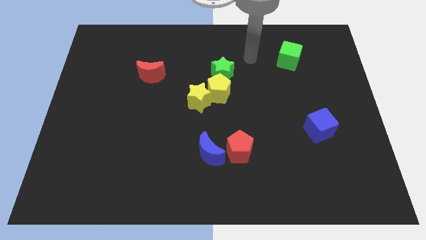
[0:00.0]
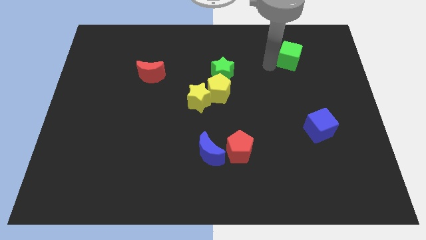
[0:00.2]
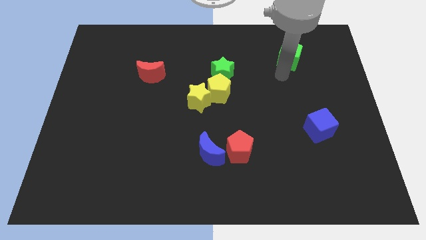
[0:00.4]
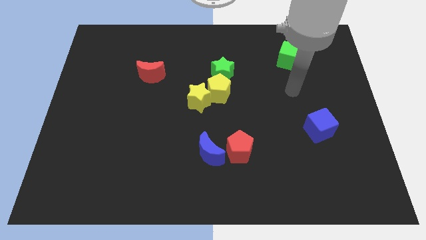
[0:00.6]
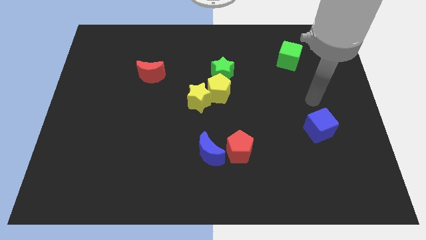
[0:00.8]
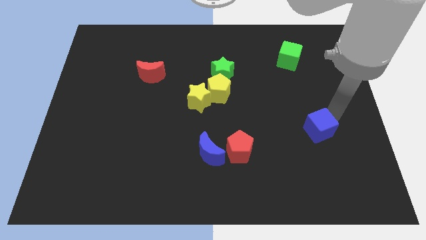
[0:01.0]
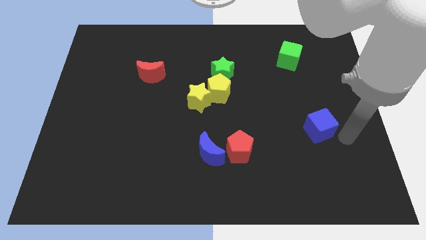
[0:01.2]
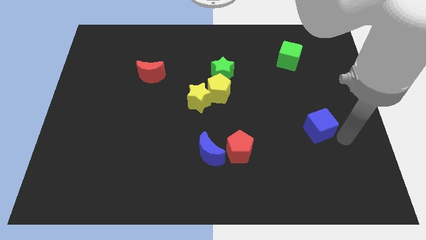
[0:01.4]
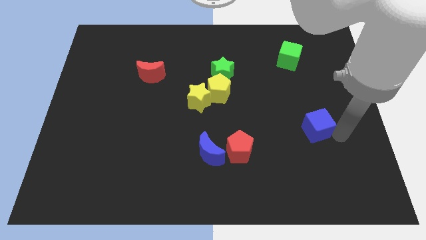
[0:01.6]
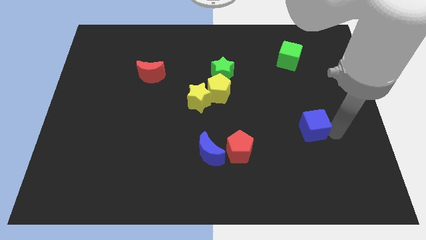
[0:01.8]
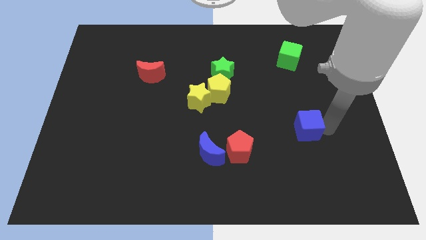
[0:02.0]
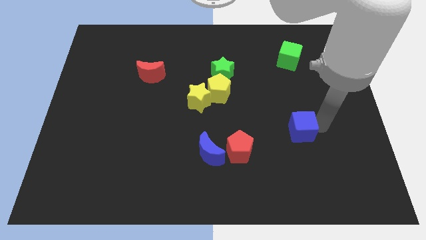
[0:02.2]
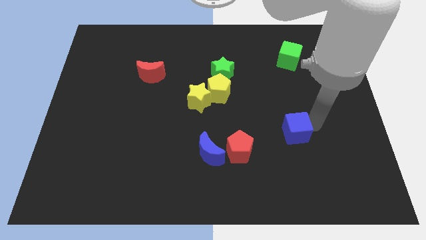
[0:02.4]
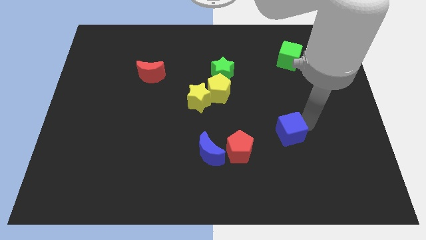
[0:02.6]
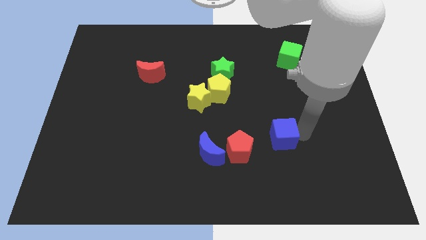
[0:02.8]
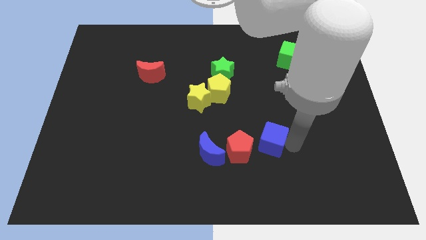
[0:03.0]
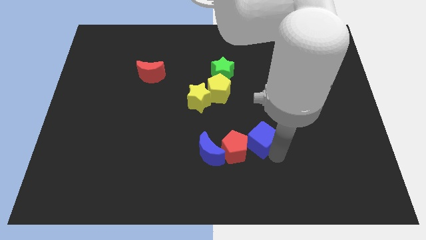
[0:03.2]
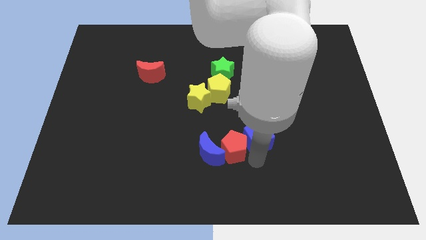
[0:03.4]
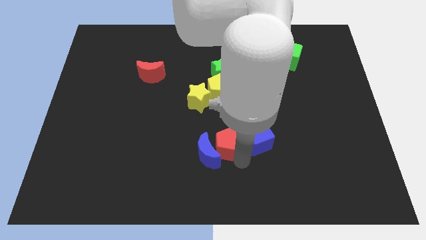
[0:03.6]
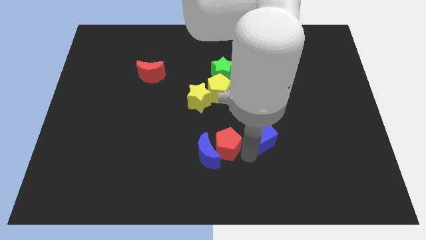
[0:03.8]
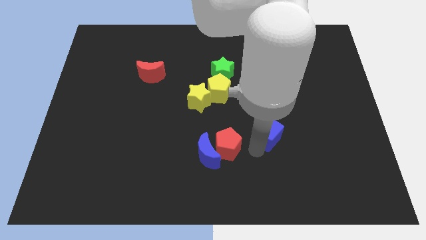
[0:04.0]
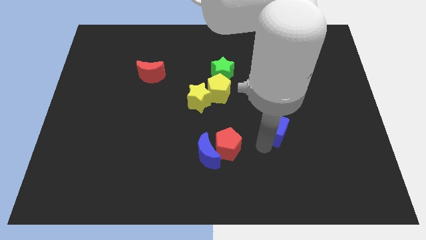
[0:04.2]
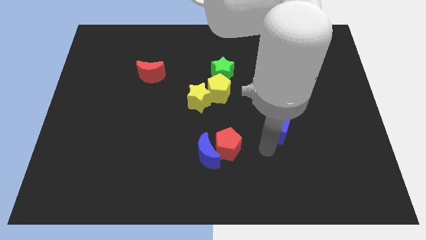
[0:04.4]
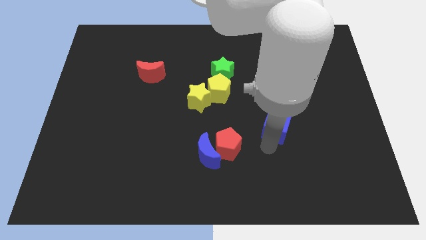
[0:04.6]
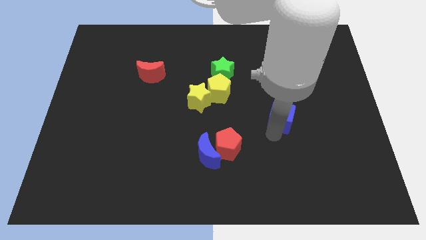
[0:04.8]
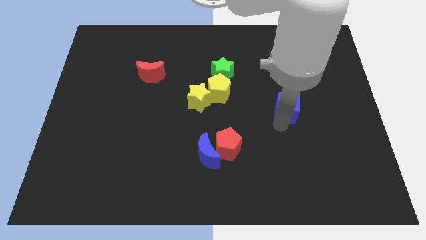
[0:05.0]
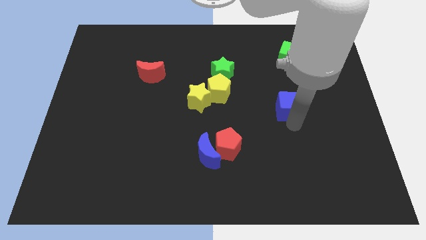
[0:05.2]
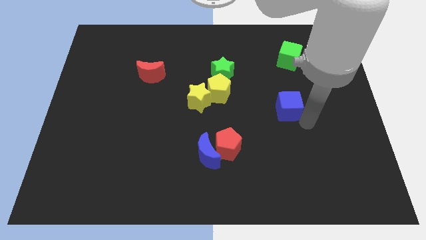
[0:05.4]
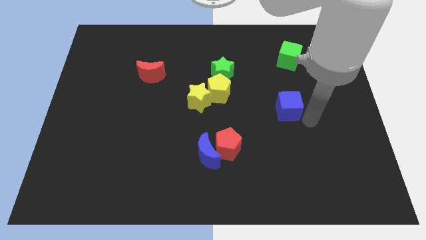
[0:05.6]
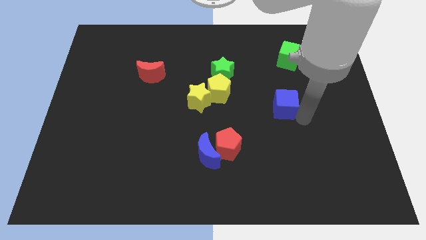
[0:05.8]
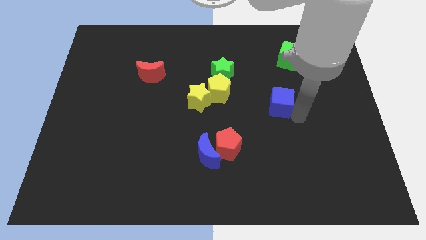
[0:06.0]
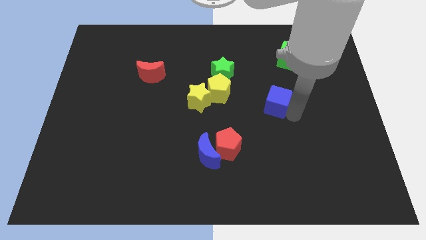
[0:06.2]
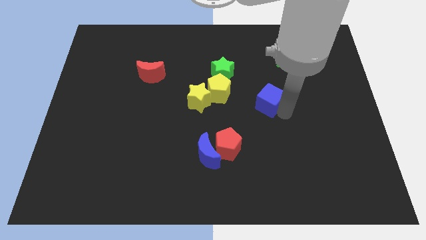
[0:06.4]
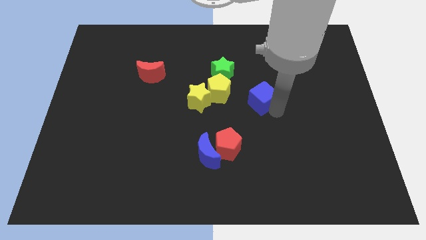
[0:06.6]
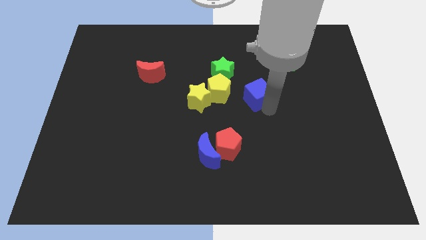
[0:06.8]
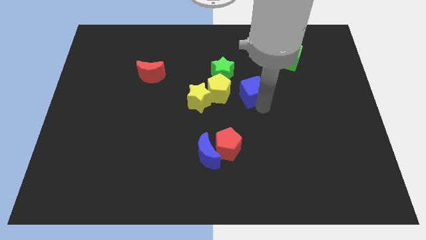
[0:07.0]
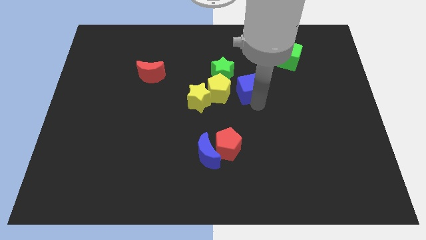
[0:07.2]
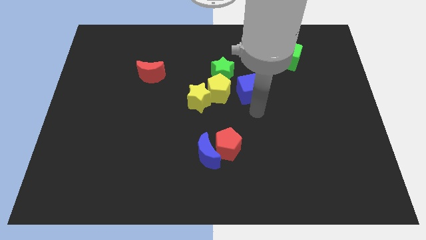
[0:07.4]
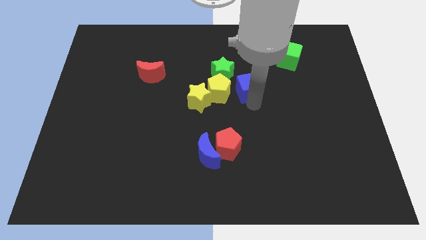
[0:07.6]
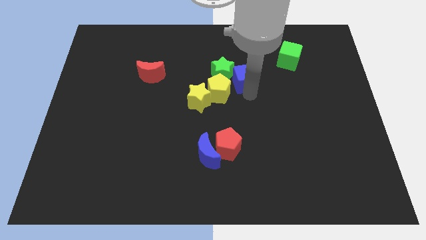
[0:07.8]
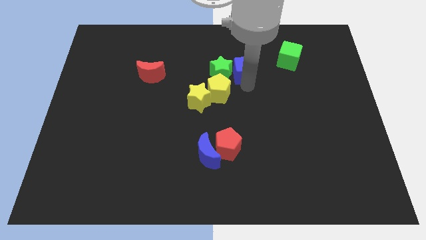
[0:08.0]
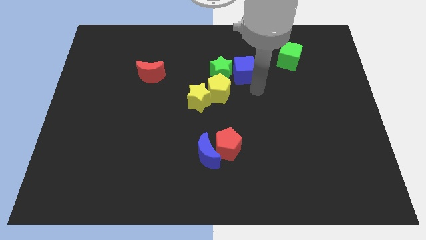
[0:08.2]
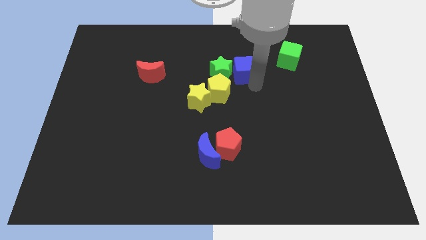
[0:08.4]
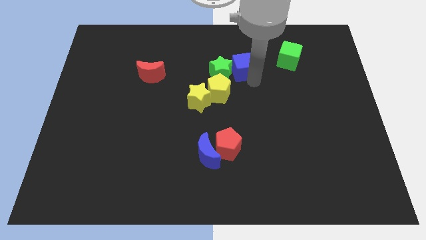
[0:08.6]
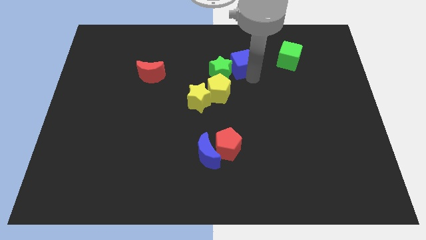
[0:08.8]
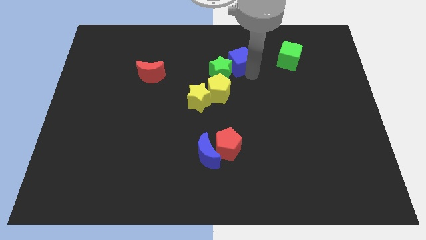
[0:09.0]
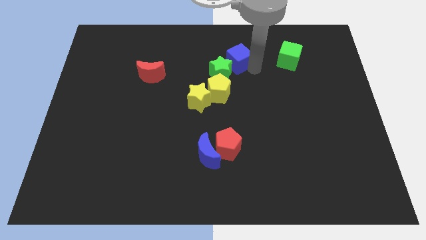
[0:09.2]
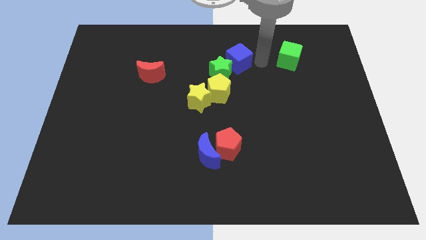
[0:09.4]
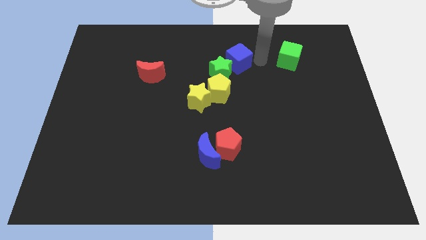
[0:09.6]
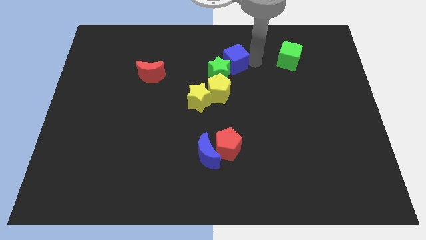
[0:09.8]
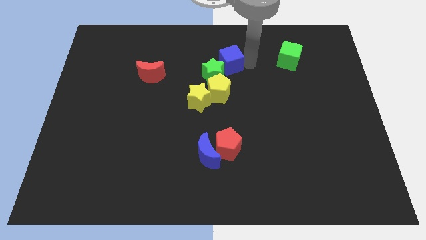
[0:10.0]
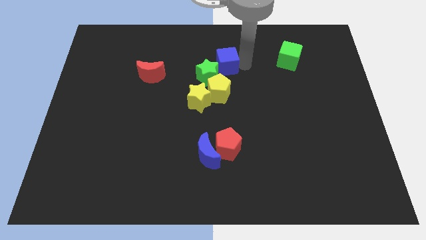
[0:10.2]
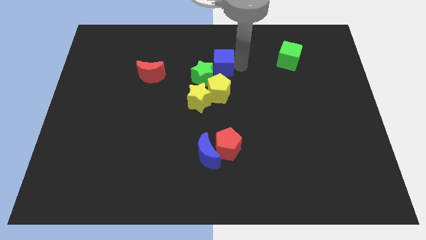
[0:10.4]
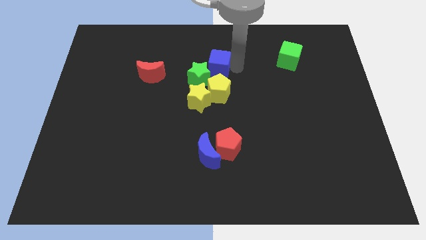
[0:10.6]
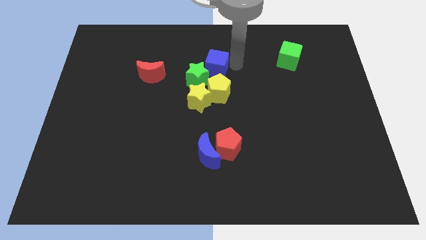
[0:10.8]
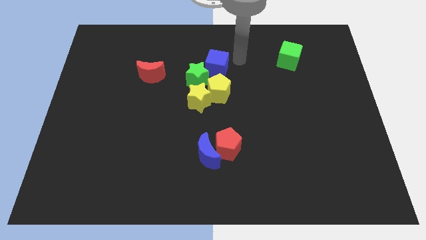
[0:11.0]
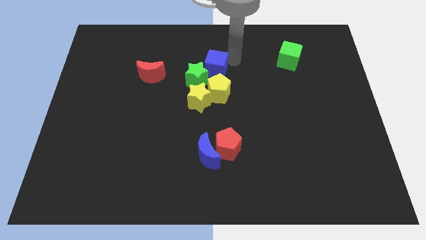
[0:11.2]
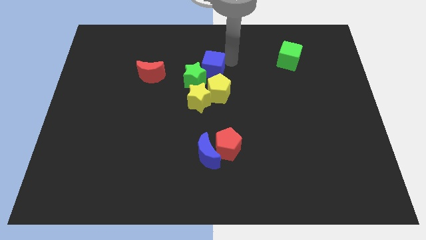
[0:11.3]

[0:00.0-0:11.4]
move the blue cube right of the red moon

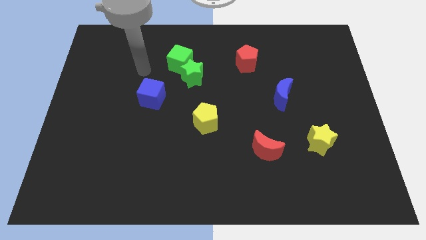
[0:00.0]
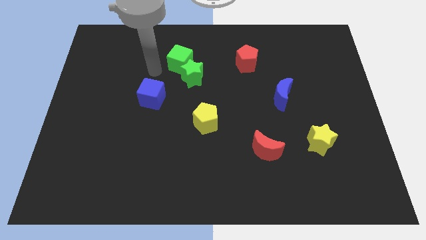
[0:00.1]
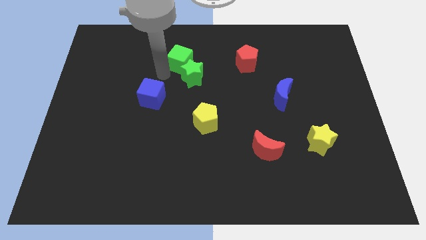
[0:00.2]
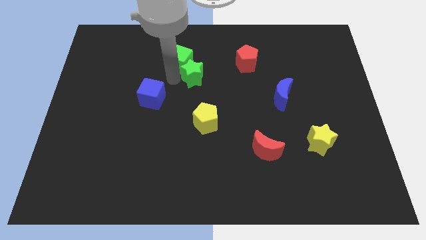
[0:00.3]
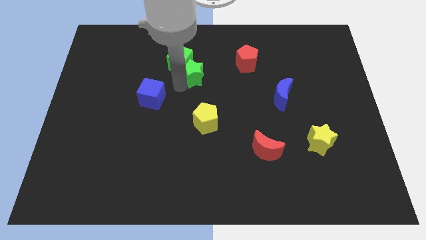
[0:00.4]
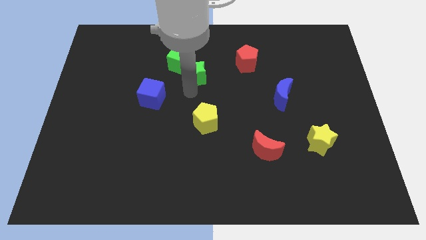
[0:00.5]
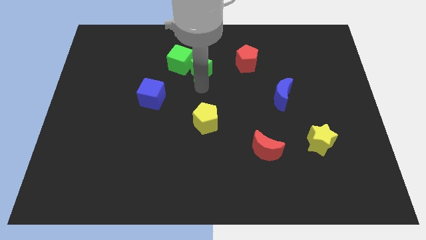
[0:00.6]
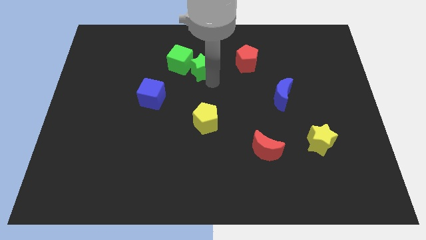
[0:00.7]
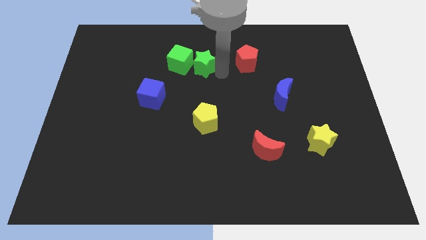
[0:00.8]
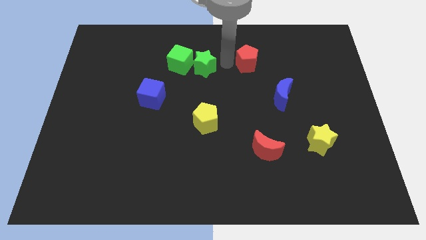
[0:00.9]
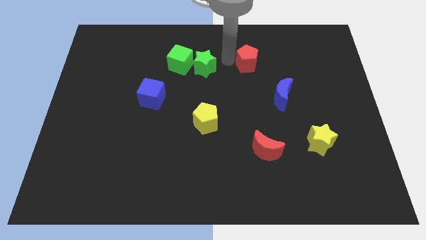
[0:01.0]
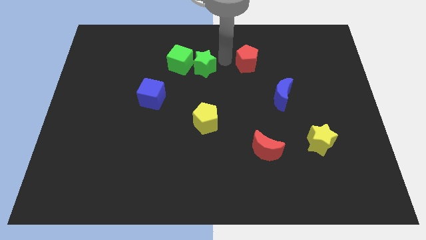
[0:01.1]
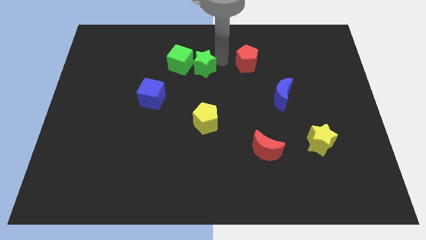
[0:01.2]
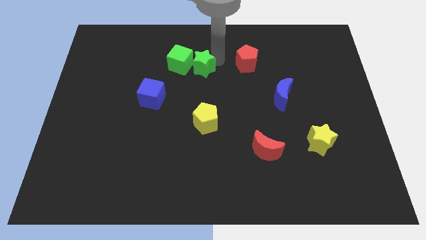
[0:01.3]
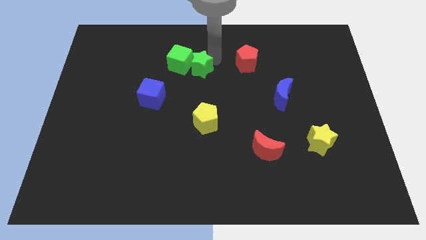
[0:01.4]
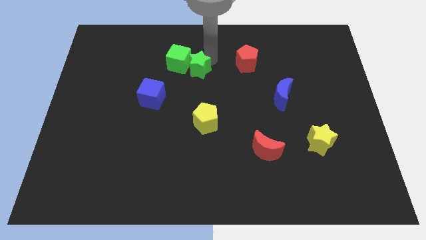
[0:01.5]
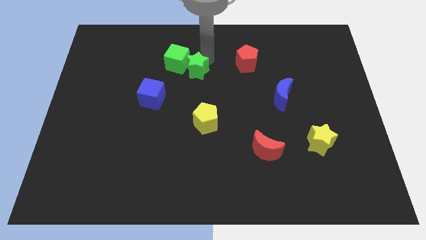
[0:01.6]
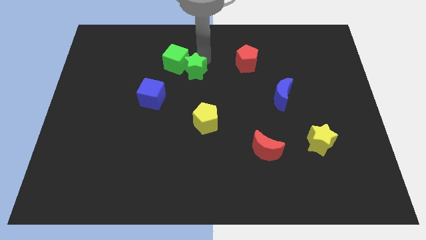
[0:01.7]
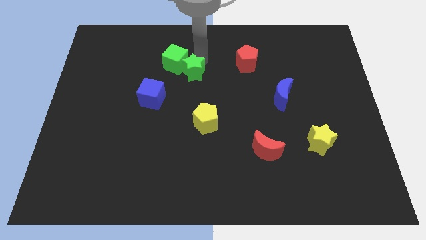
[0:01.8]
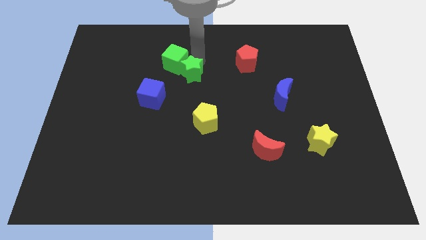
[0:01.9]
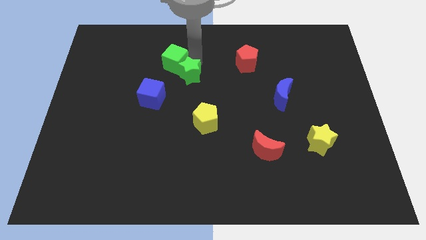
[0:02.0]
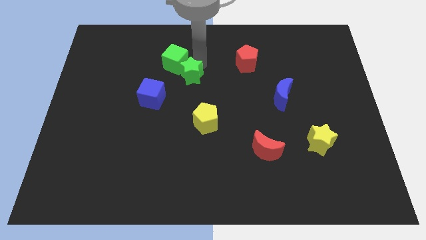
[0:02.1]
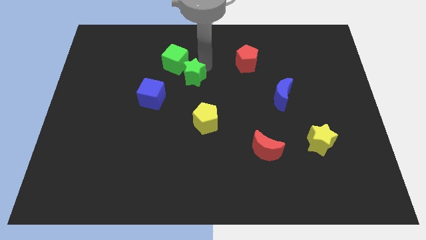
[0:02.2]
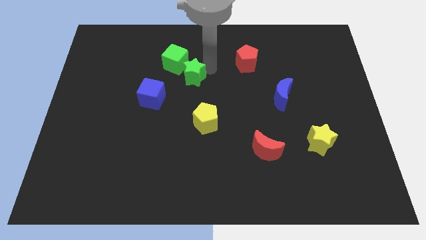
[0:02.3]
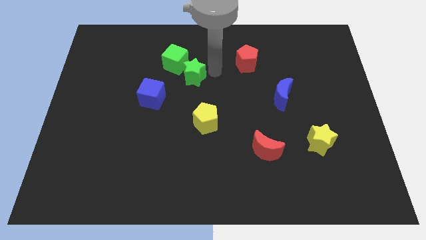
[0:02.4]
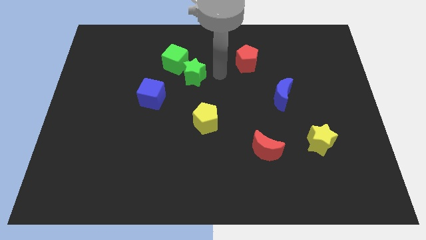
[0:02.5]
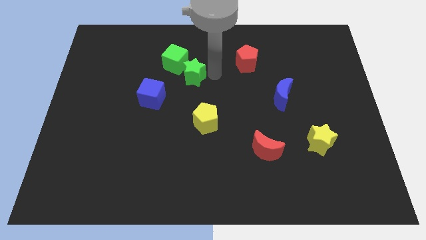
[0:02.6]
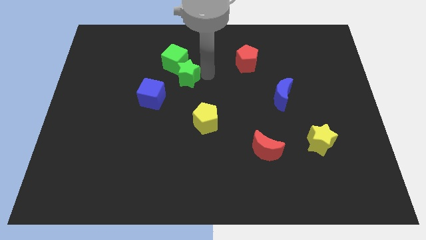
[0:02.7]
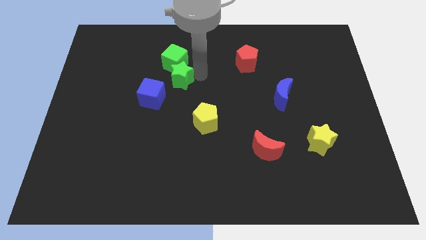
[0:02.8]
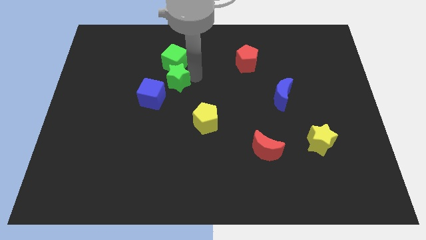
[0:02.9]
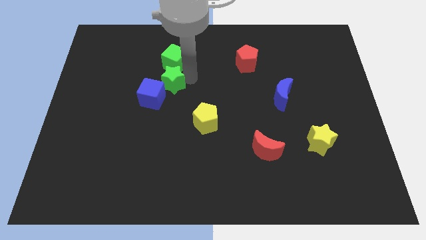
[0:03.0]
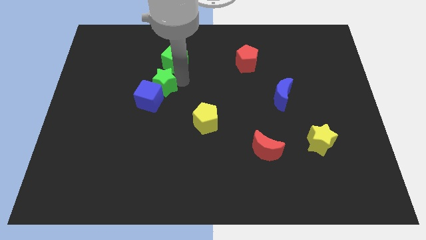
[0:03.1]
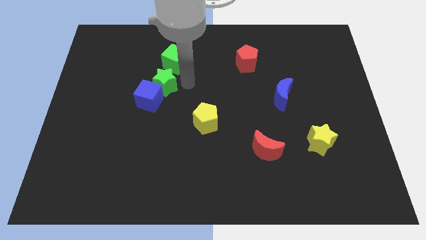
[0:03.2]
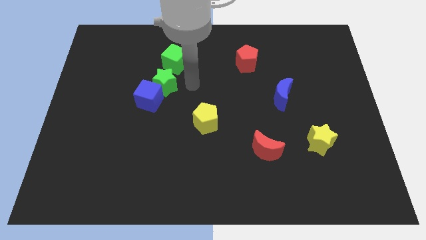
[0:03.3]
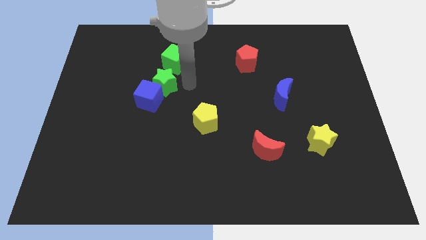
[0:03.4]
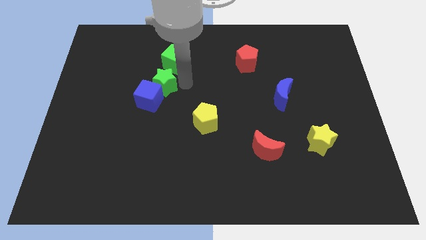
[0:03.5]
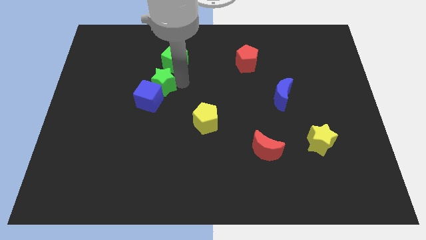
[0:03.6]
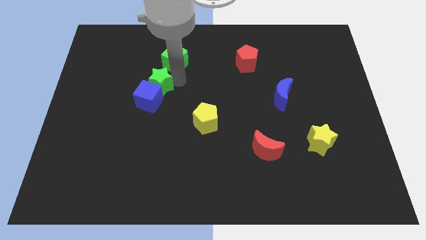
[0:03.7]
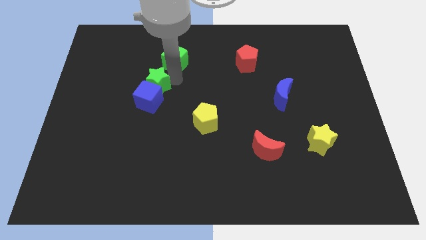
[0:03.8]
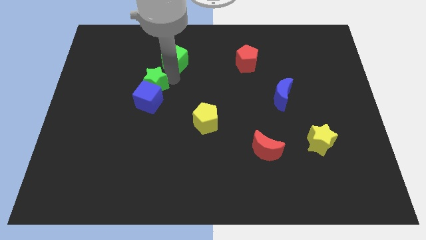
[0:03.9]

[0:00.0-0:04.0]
move the green star to the top left side of the blue cube
